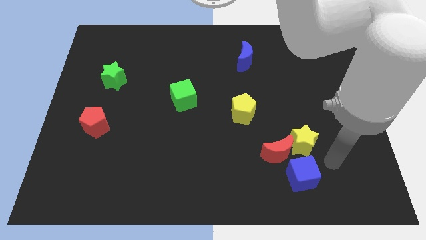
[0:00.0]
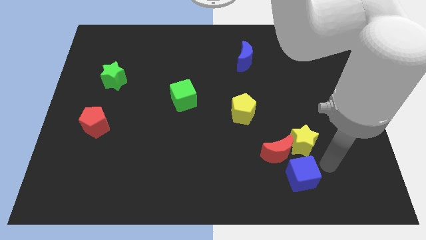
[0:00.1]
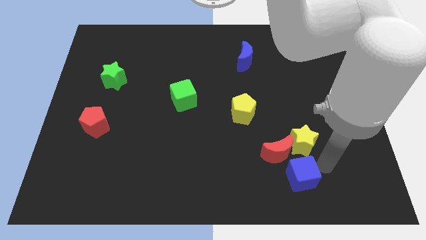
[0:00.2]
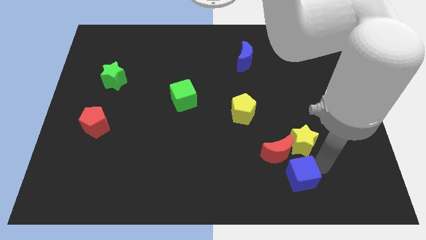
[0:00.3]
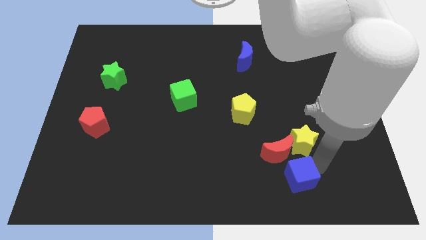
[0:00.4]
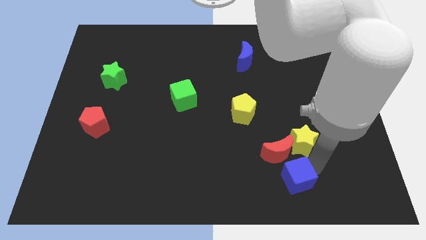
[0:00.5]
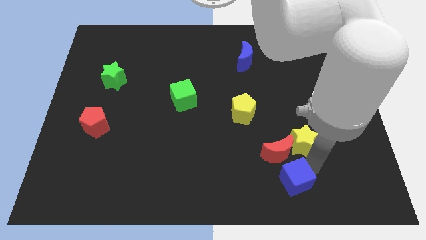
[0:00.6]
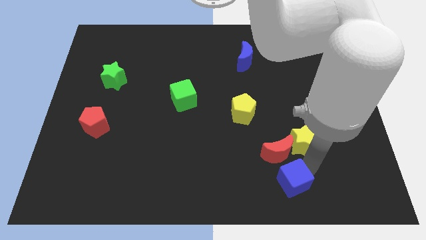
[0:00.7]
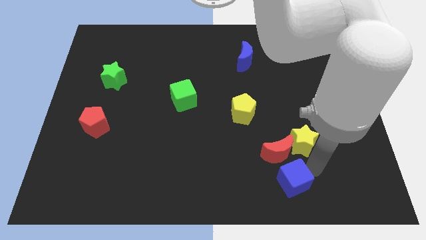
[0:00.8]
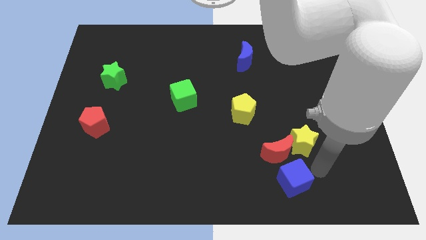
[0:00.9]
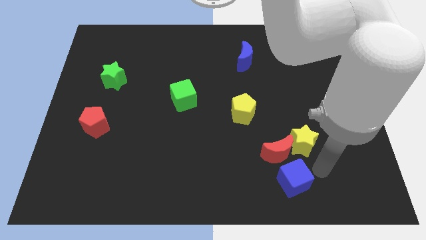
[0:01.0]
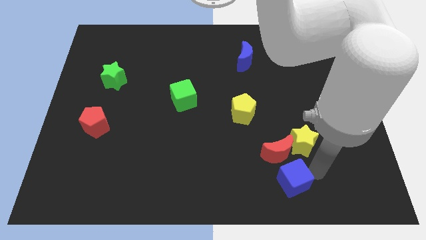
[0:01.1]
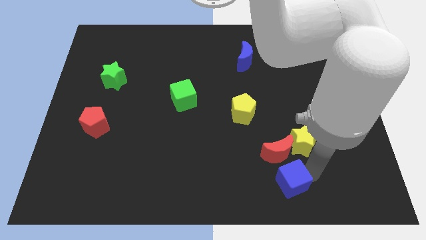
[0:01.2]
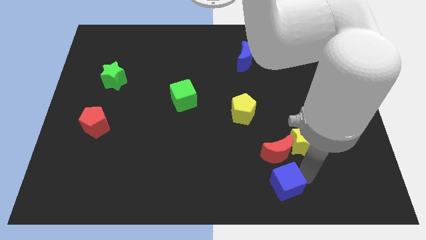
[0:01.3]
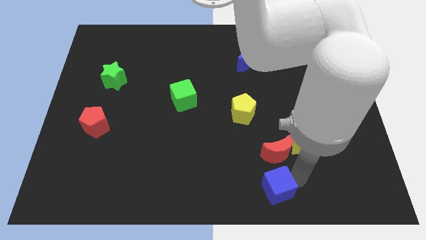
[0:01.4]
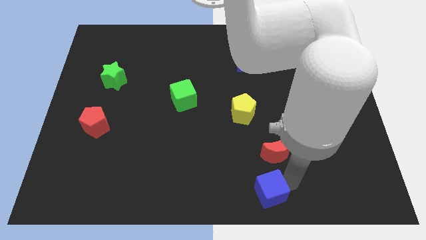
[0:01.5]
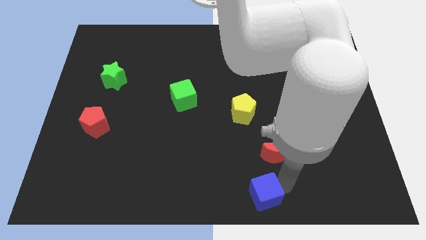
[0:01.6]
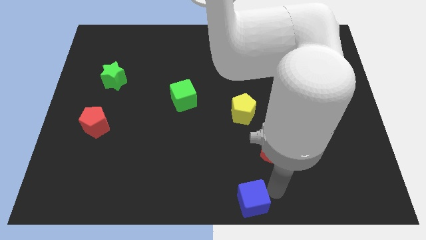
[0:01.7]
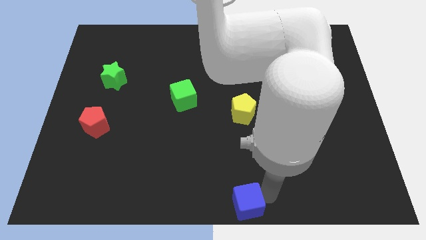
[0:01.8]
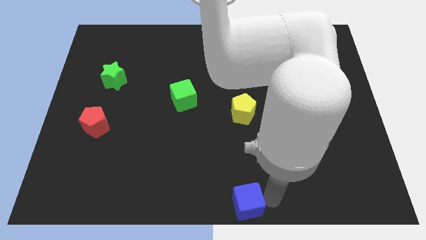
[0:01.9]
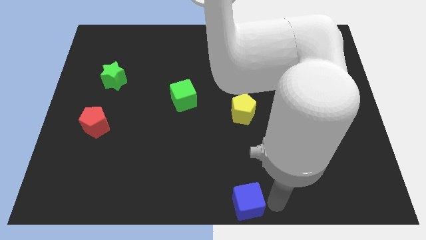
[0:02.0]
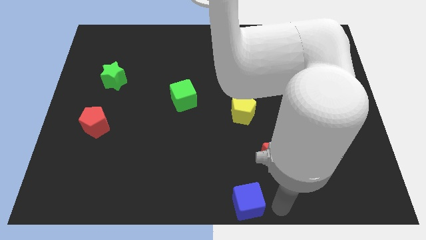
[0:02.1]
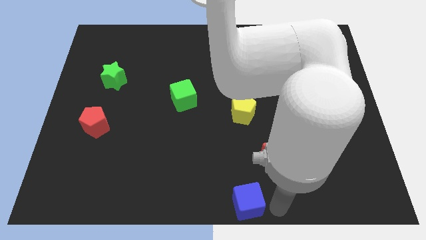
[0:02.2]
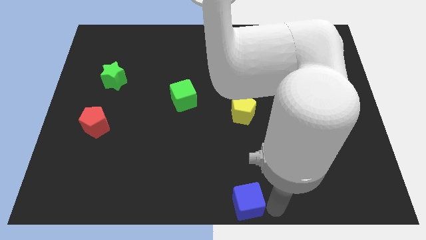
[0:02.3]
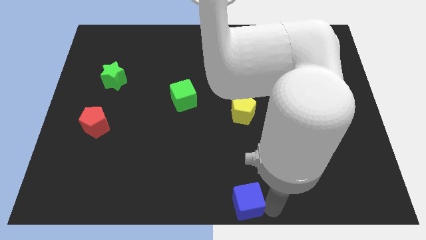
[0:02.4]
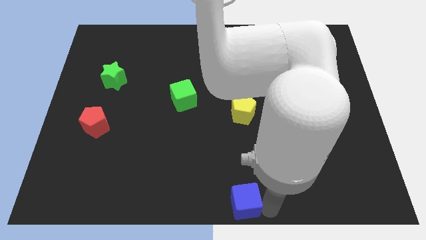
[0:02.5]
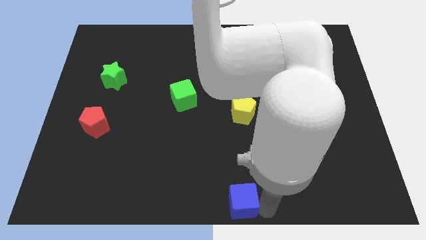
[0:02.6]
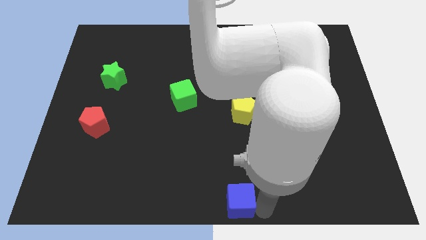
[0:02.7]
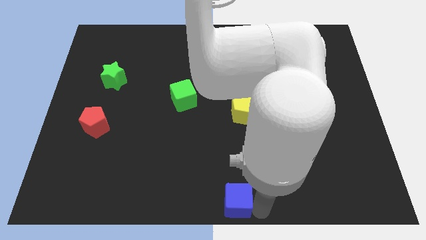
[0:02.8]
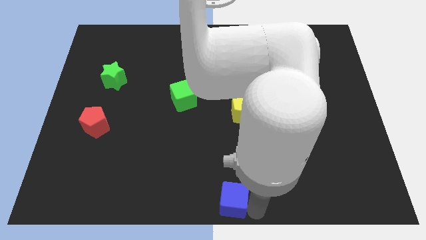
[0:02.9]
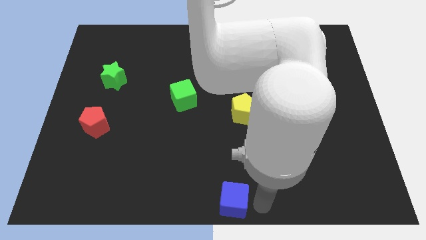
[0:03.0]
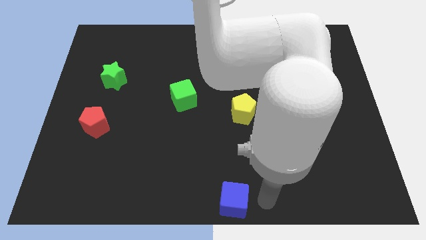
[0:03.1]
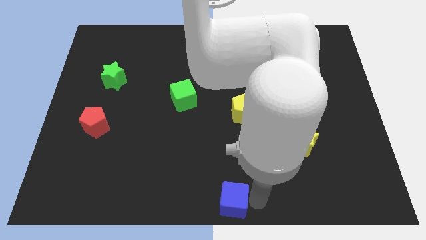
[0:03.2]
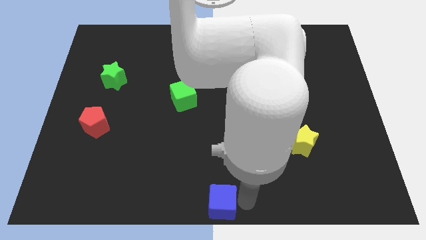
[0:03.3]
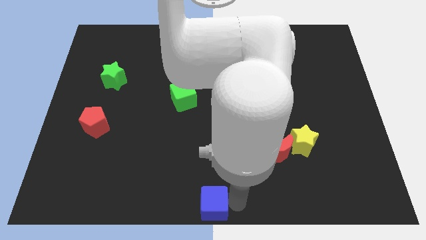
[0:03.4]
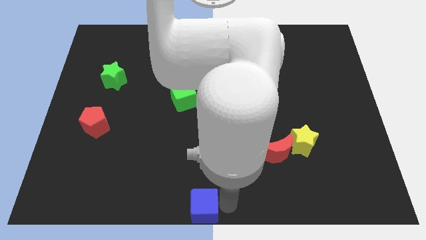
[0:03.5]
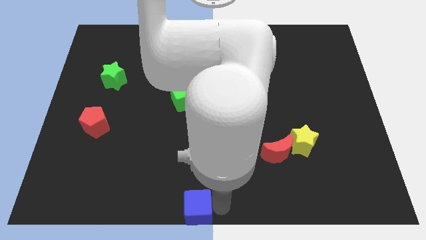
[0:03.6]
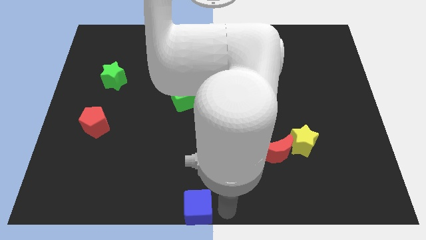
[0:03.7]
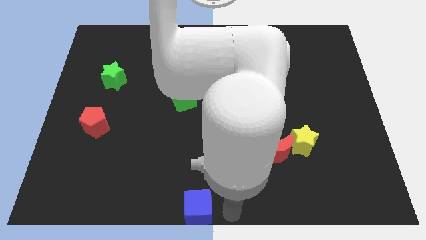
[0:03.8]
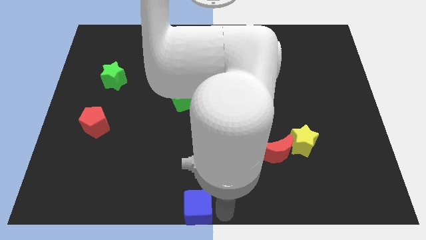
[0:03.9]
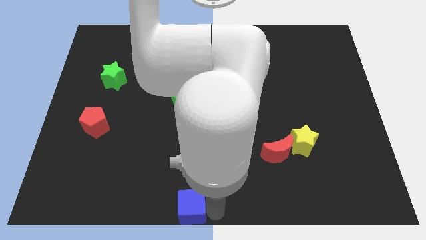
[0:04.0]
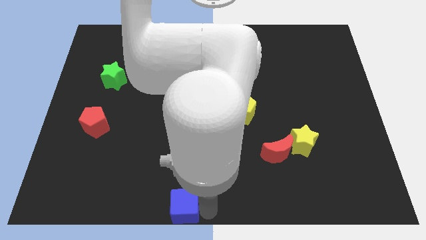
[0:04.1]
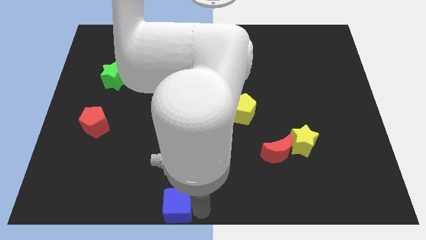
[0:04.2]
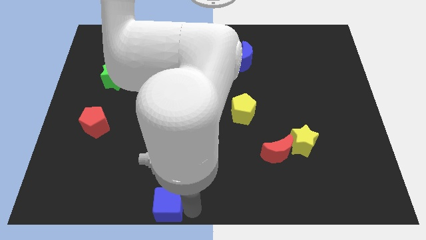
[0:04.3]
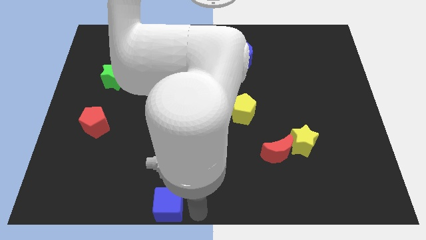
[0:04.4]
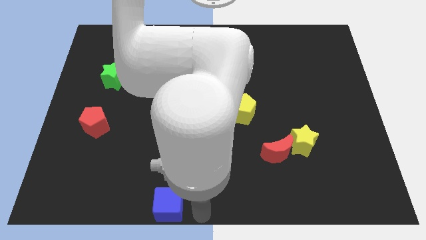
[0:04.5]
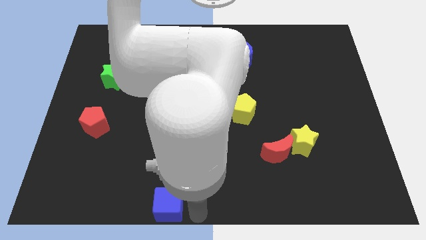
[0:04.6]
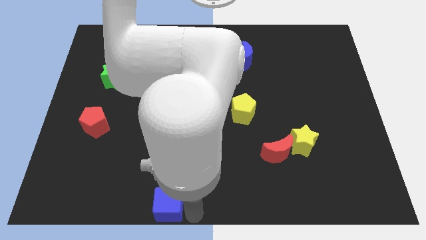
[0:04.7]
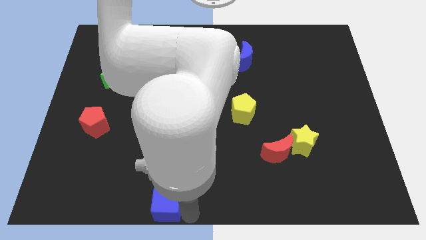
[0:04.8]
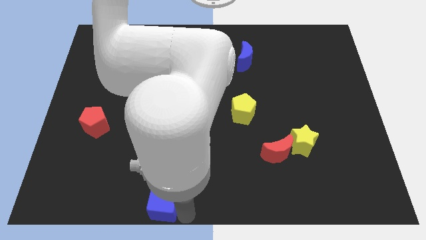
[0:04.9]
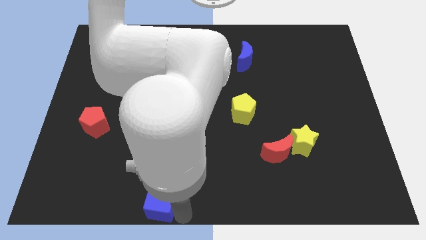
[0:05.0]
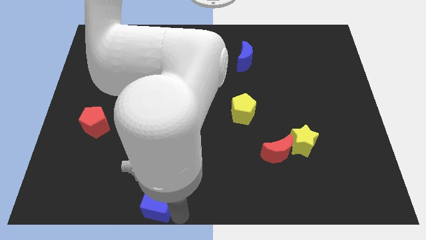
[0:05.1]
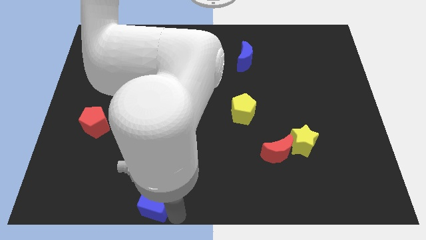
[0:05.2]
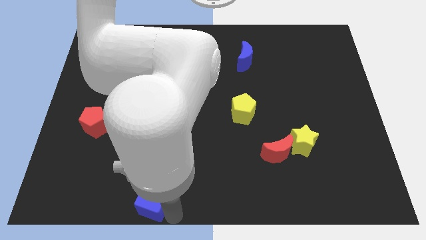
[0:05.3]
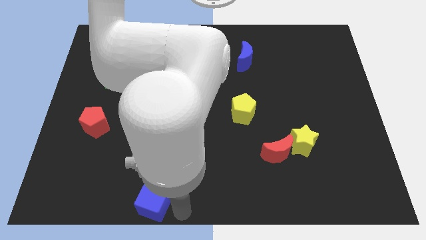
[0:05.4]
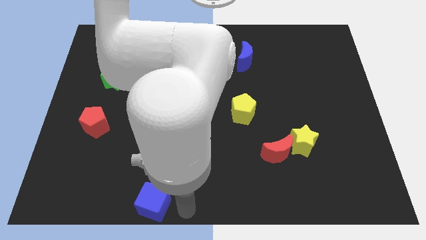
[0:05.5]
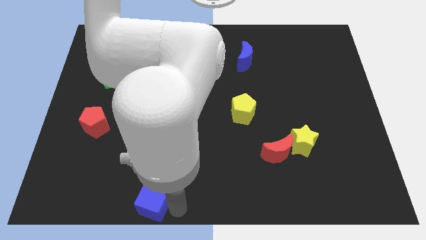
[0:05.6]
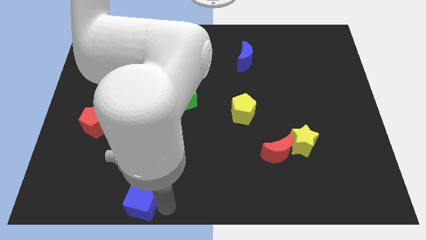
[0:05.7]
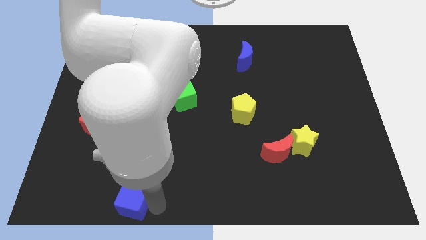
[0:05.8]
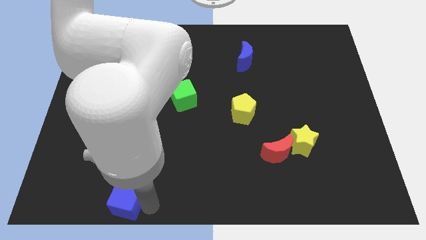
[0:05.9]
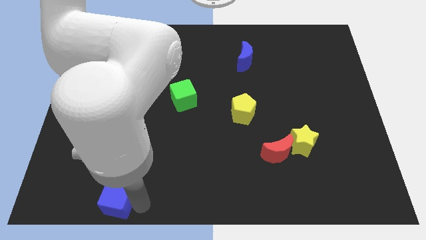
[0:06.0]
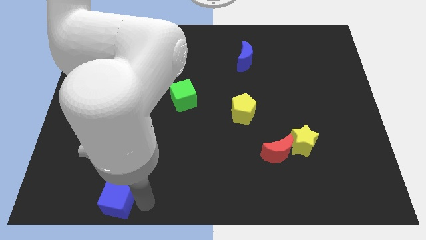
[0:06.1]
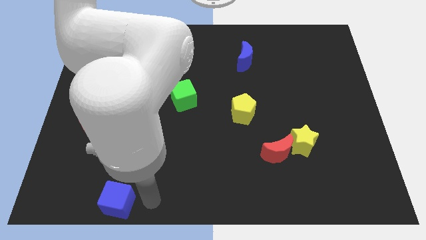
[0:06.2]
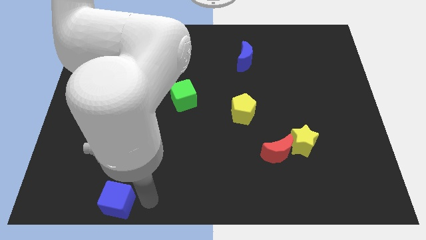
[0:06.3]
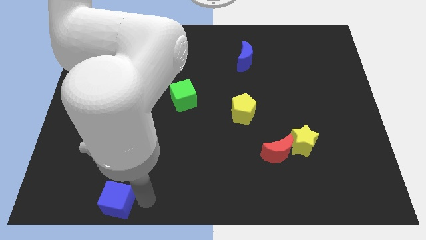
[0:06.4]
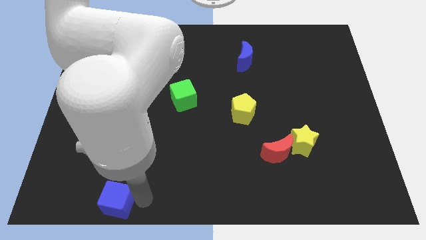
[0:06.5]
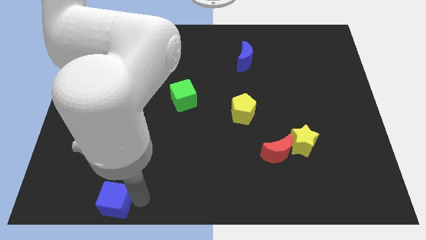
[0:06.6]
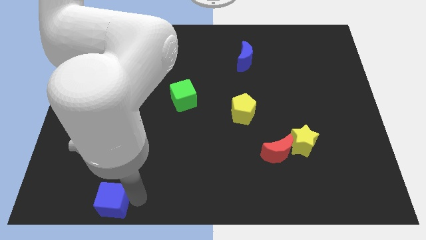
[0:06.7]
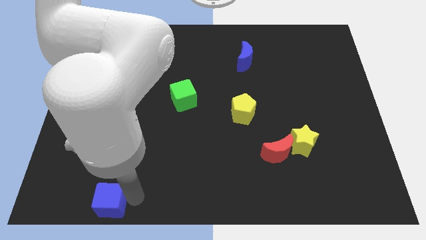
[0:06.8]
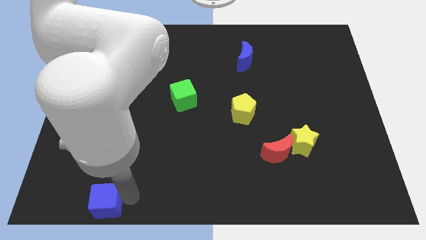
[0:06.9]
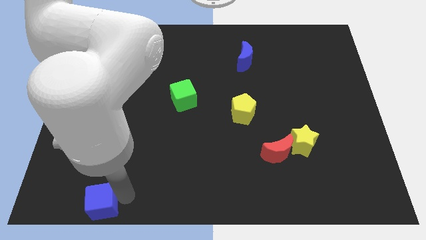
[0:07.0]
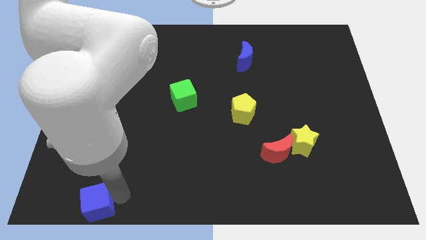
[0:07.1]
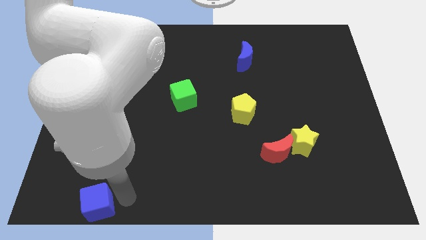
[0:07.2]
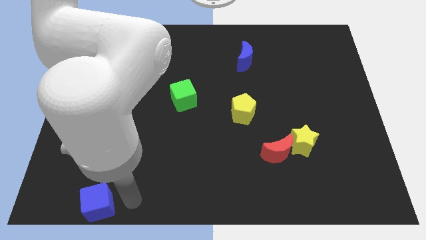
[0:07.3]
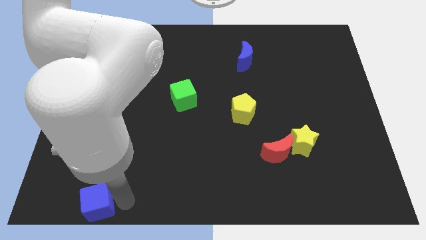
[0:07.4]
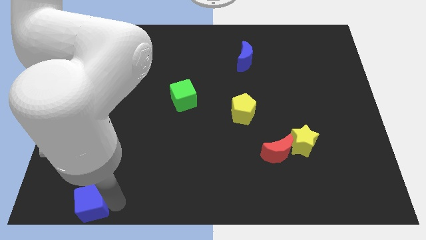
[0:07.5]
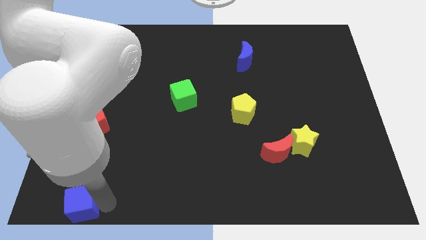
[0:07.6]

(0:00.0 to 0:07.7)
move the blue cube to the bottom left of the board
